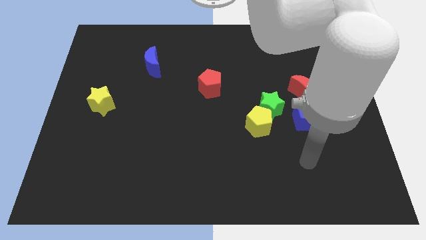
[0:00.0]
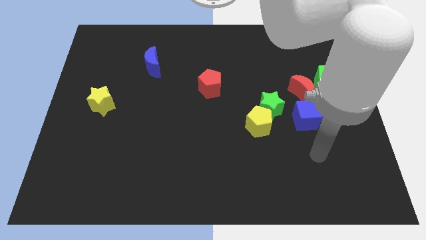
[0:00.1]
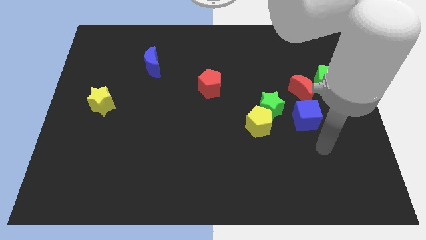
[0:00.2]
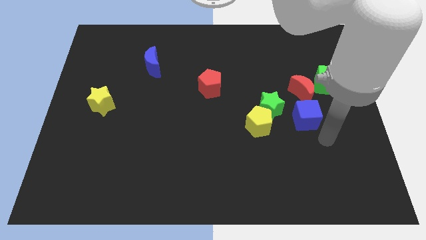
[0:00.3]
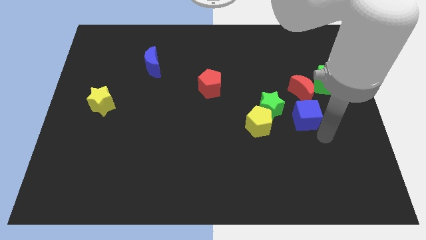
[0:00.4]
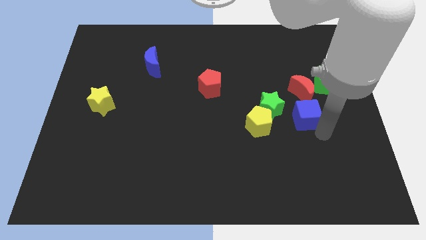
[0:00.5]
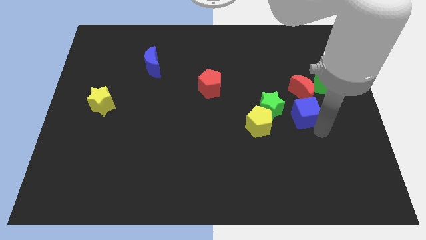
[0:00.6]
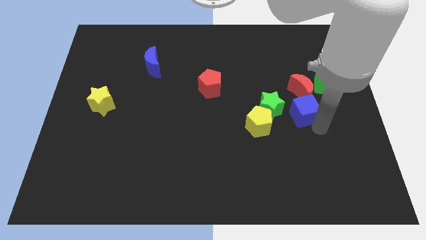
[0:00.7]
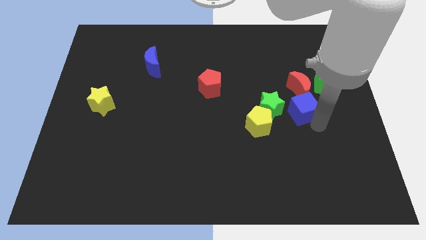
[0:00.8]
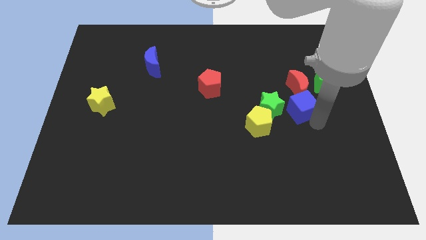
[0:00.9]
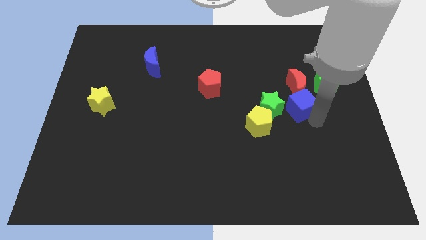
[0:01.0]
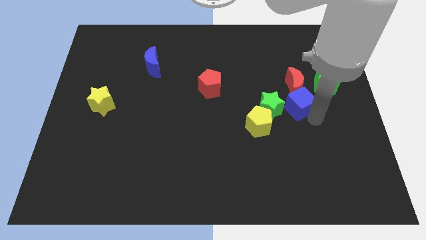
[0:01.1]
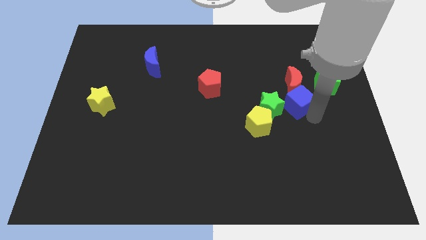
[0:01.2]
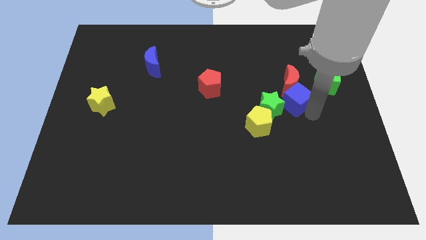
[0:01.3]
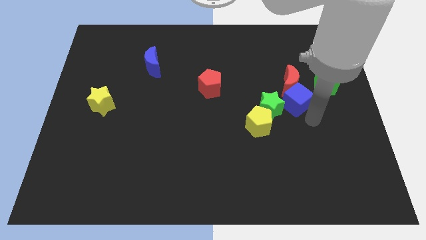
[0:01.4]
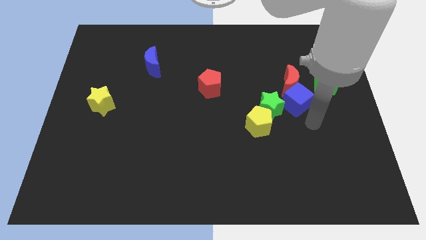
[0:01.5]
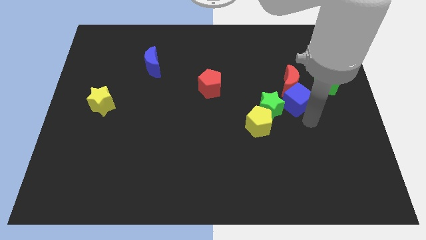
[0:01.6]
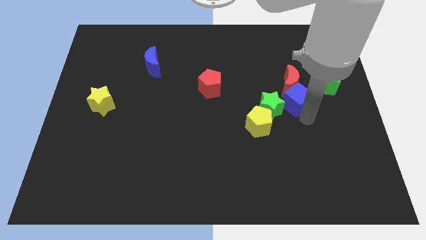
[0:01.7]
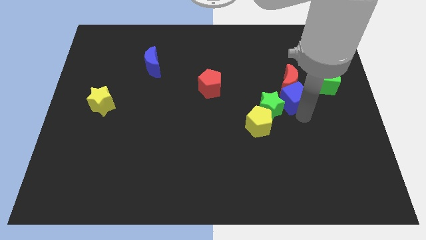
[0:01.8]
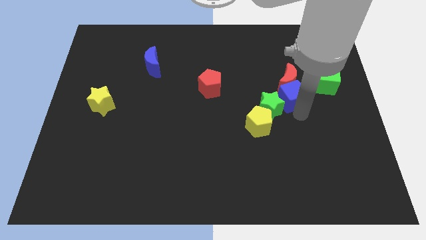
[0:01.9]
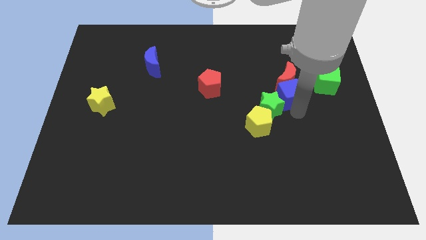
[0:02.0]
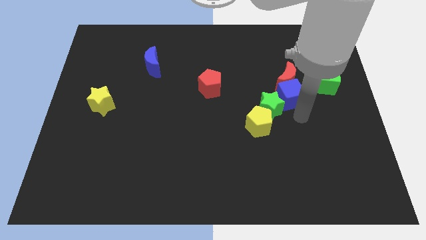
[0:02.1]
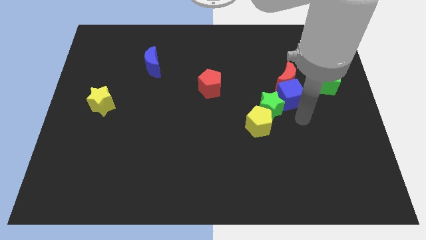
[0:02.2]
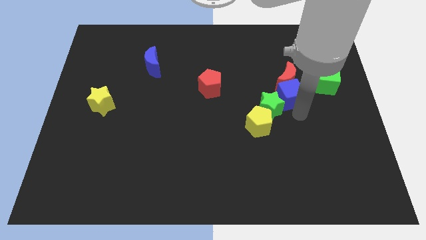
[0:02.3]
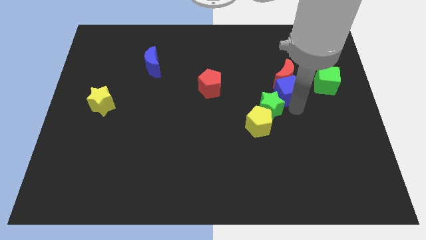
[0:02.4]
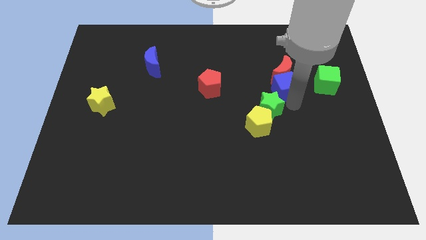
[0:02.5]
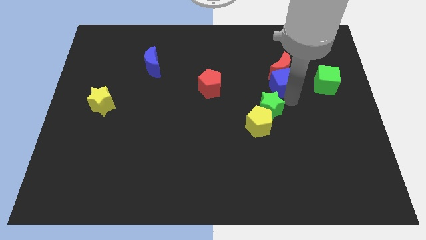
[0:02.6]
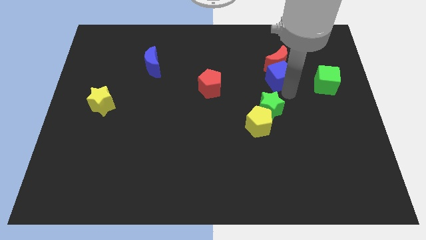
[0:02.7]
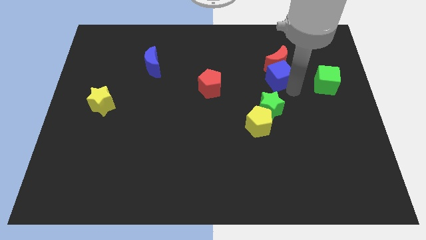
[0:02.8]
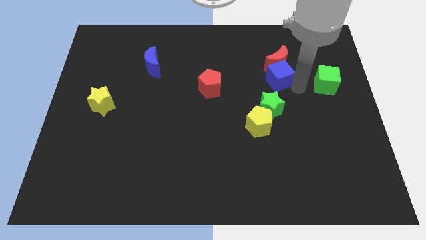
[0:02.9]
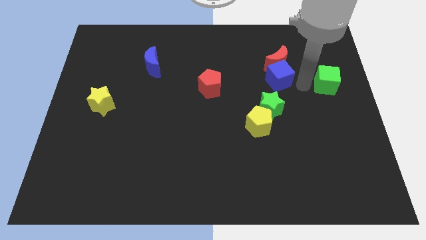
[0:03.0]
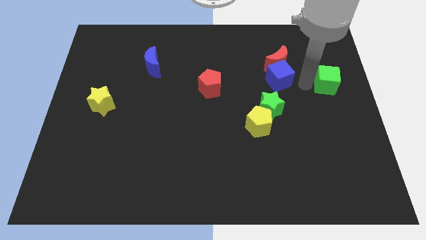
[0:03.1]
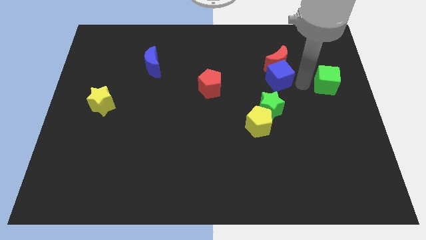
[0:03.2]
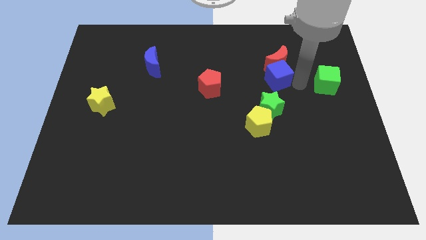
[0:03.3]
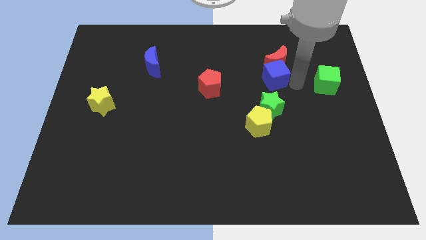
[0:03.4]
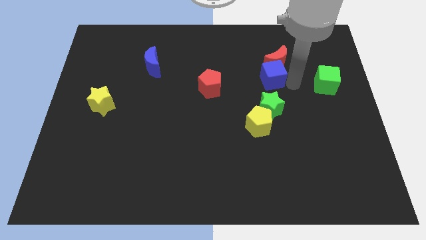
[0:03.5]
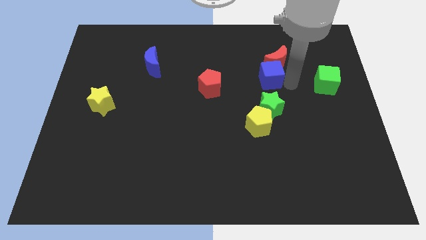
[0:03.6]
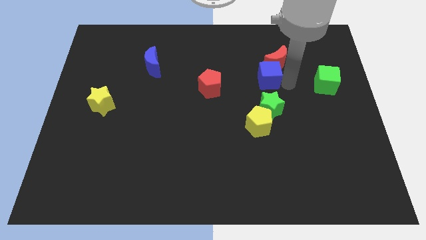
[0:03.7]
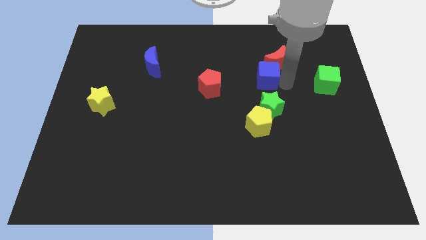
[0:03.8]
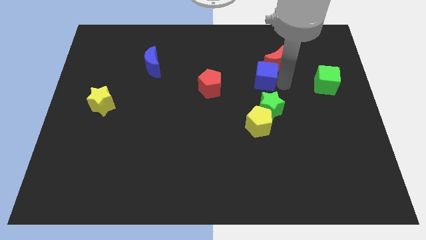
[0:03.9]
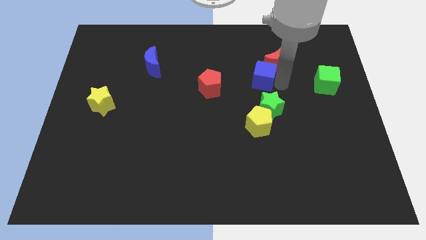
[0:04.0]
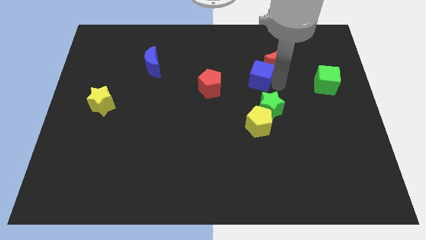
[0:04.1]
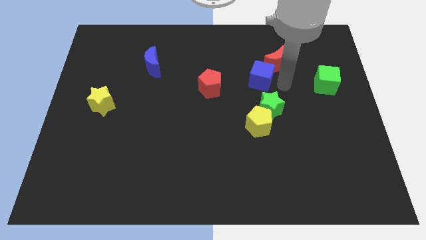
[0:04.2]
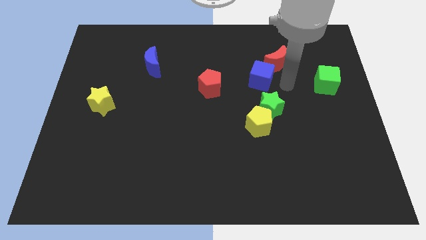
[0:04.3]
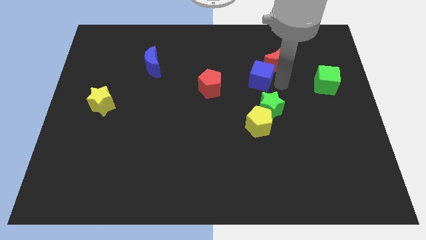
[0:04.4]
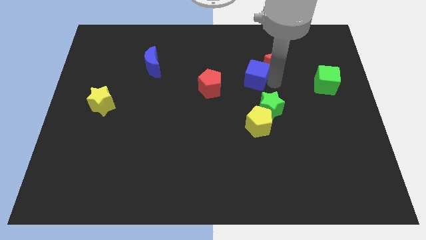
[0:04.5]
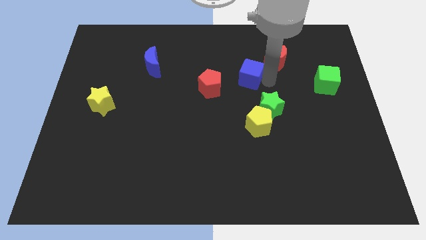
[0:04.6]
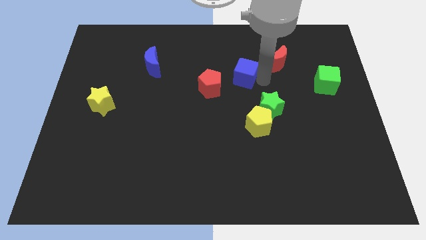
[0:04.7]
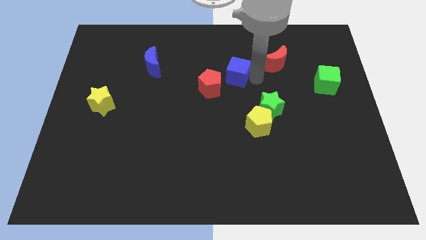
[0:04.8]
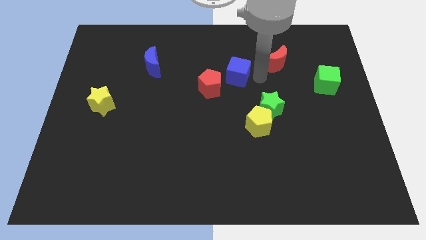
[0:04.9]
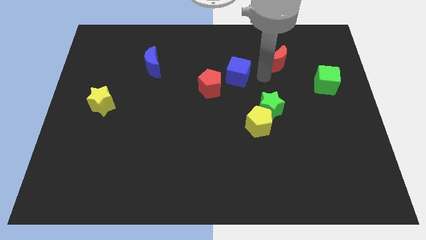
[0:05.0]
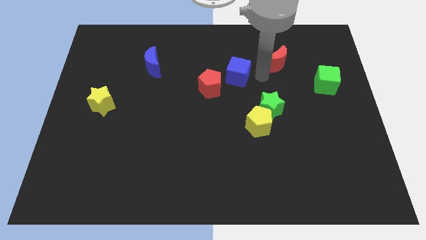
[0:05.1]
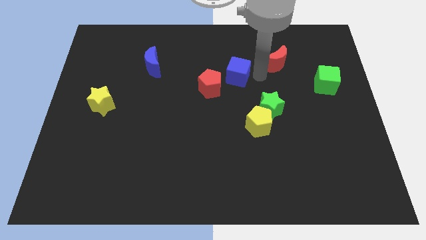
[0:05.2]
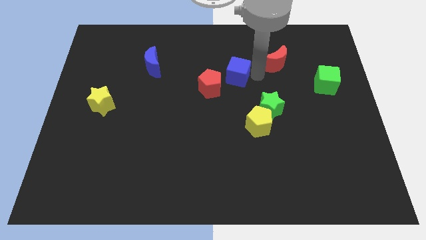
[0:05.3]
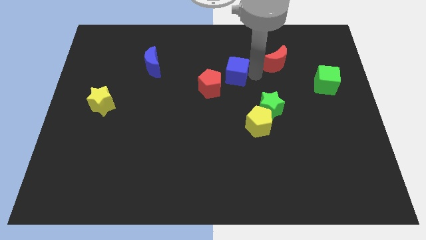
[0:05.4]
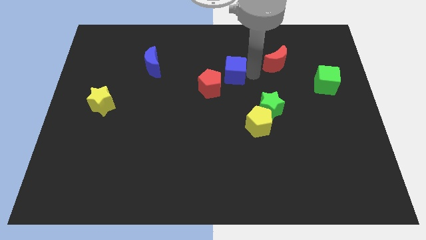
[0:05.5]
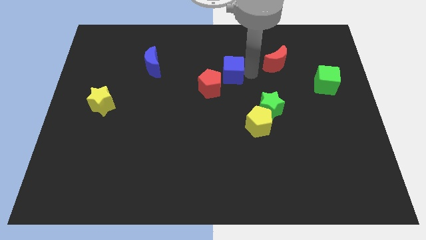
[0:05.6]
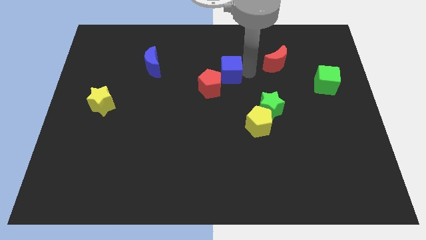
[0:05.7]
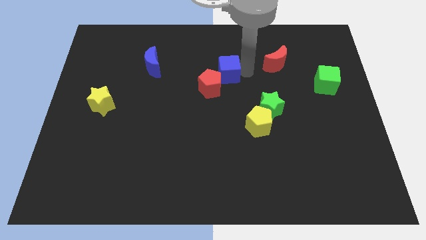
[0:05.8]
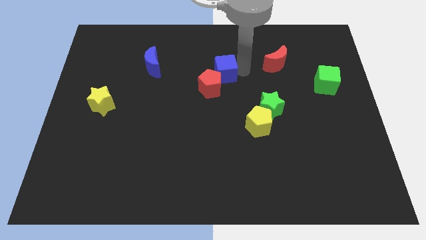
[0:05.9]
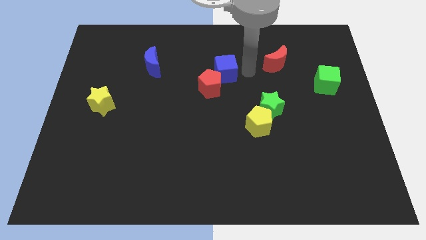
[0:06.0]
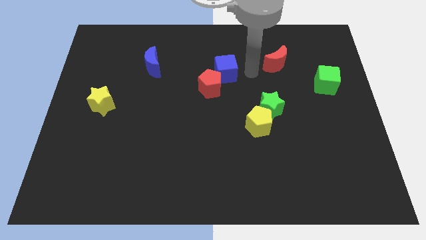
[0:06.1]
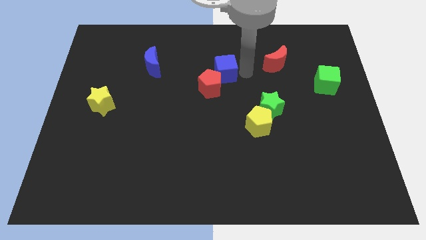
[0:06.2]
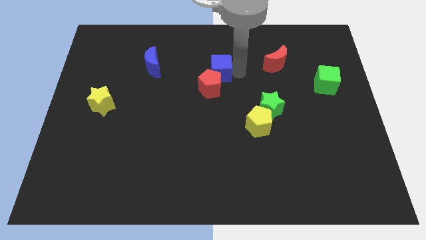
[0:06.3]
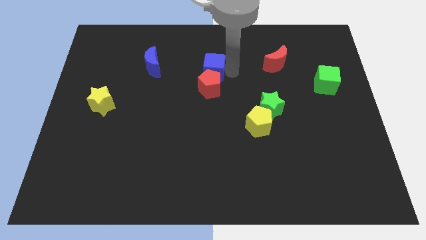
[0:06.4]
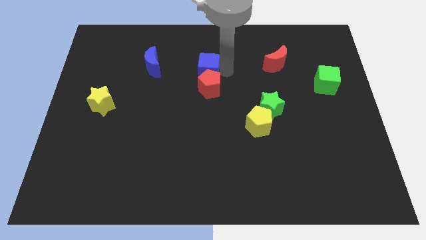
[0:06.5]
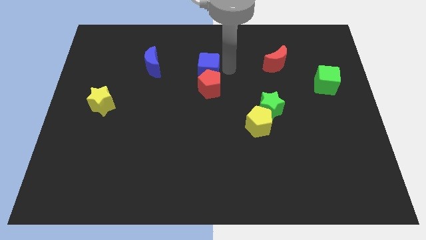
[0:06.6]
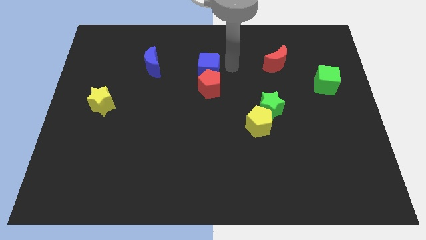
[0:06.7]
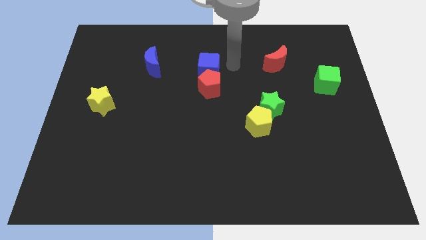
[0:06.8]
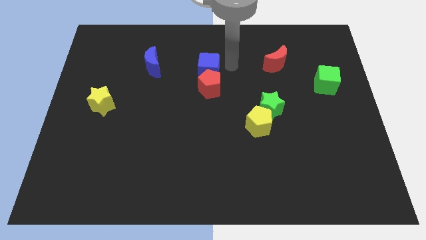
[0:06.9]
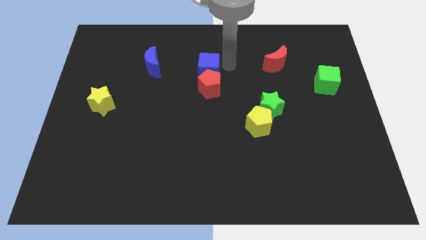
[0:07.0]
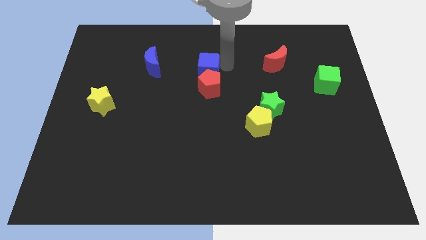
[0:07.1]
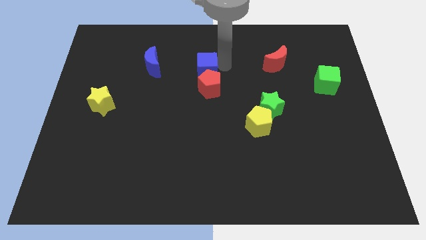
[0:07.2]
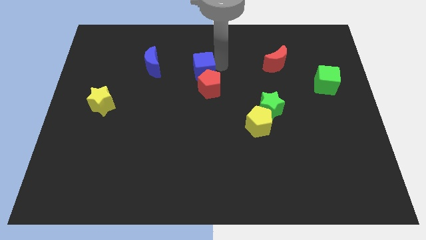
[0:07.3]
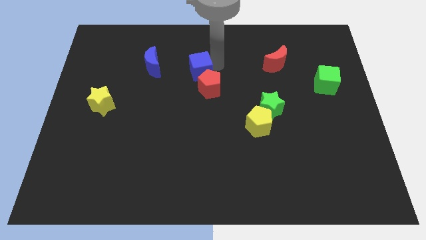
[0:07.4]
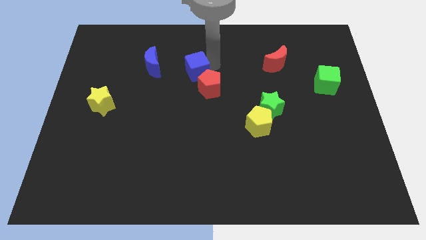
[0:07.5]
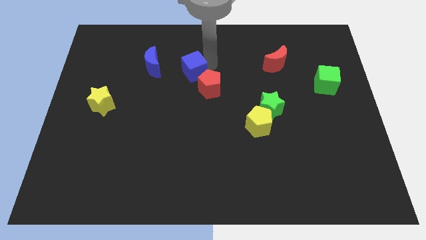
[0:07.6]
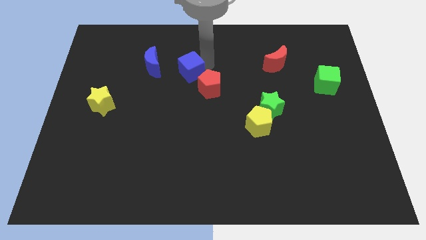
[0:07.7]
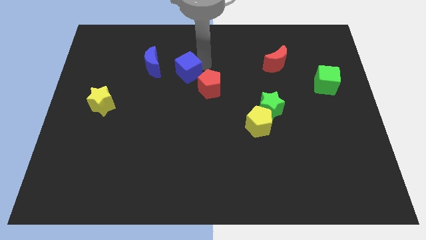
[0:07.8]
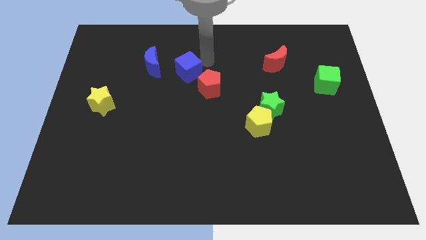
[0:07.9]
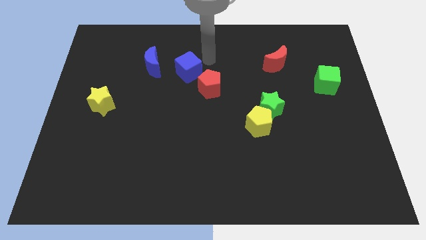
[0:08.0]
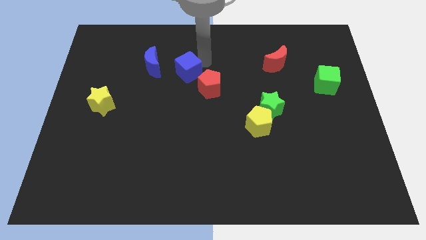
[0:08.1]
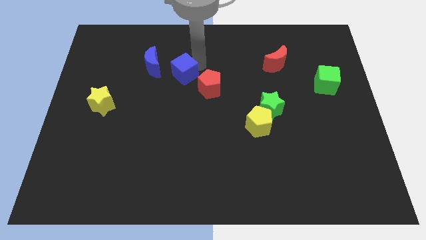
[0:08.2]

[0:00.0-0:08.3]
push the blue cube diagonally down and to the right of the blue moon
